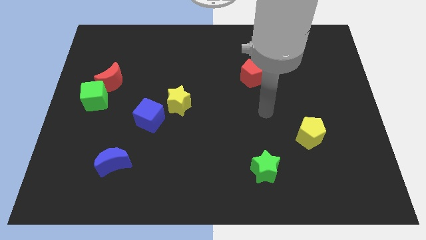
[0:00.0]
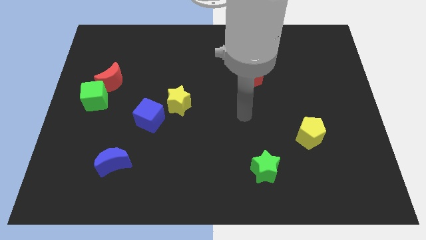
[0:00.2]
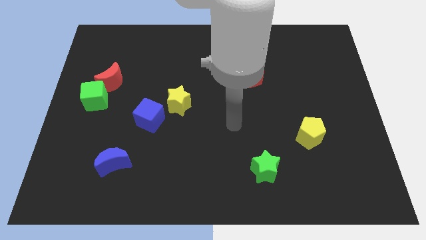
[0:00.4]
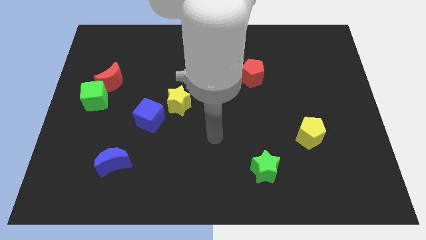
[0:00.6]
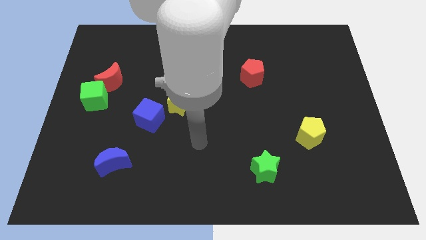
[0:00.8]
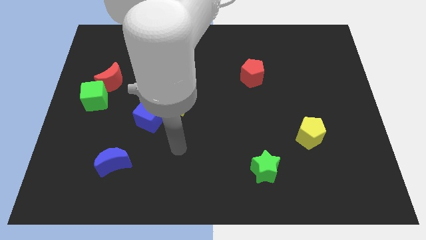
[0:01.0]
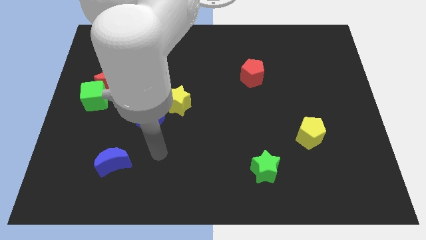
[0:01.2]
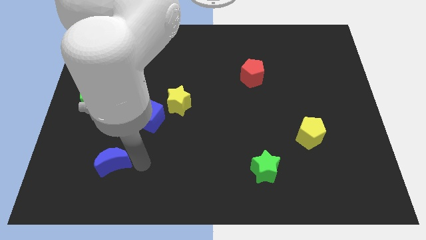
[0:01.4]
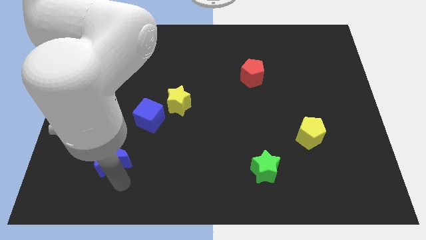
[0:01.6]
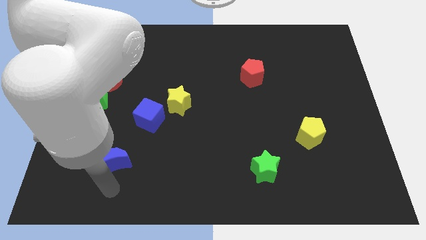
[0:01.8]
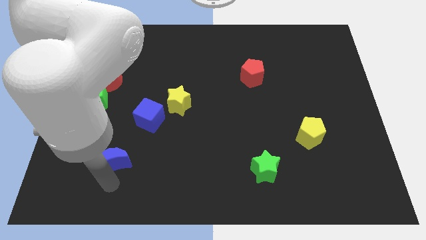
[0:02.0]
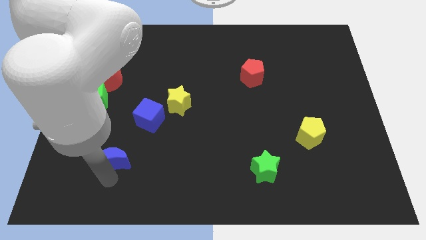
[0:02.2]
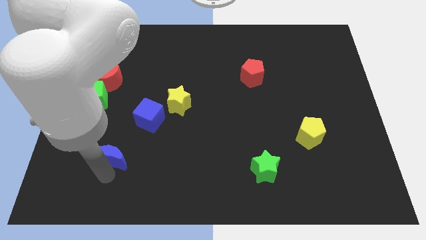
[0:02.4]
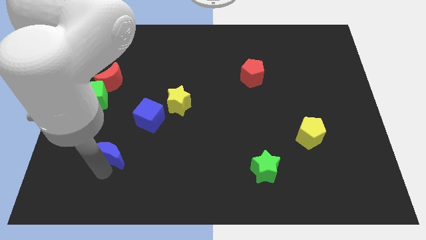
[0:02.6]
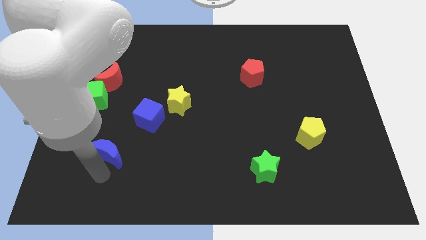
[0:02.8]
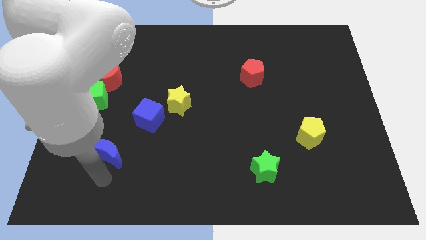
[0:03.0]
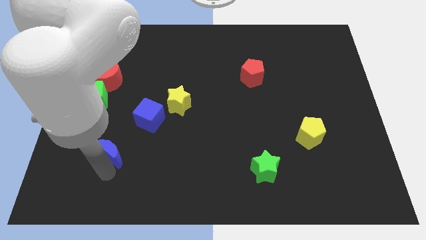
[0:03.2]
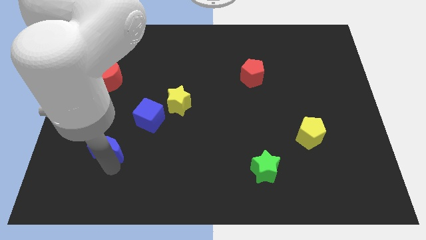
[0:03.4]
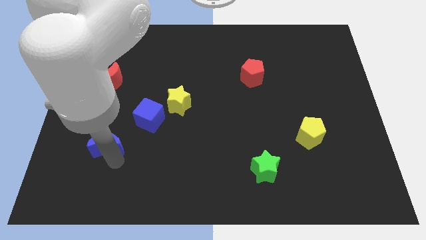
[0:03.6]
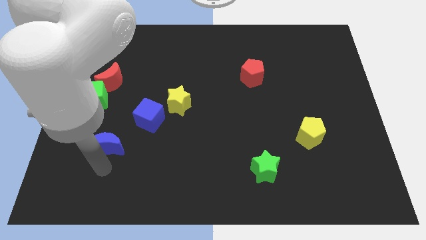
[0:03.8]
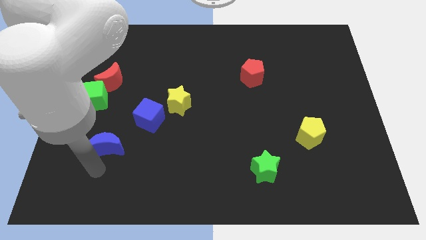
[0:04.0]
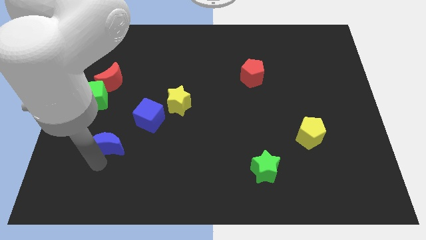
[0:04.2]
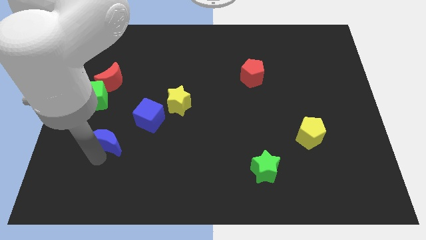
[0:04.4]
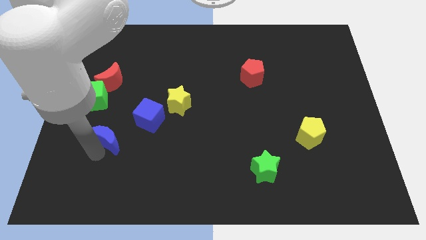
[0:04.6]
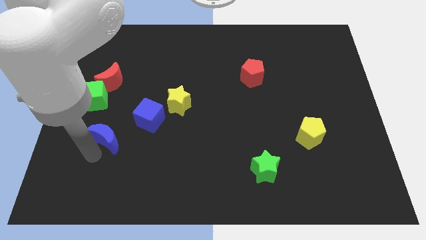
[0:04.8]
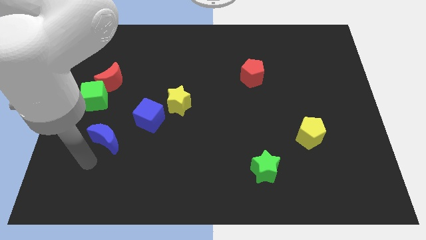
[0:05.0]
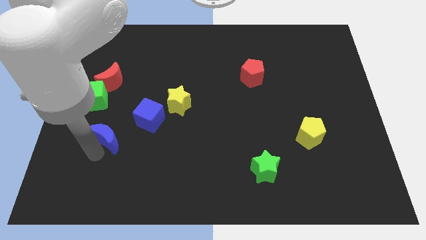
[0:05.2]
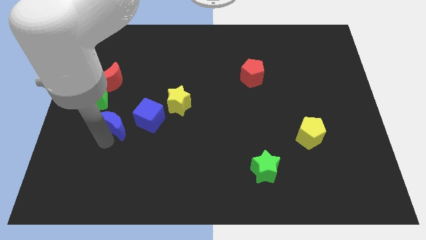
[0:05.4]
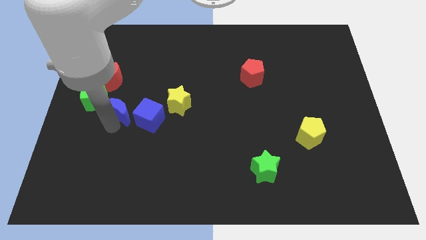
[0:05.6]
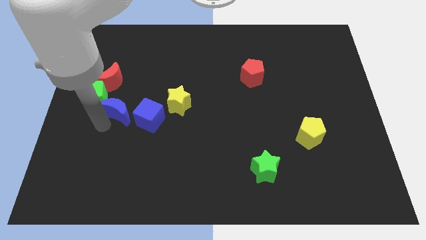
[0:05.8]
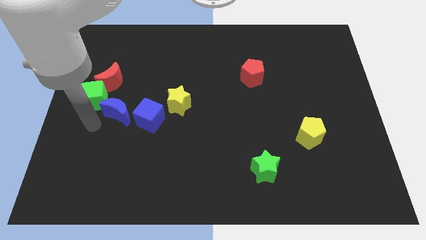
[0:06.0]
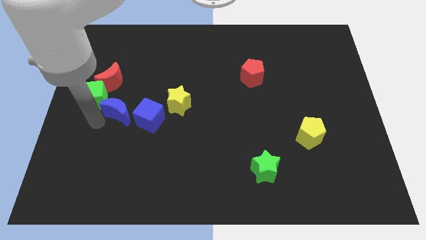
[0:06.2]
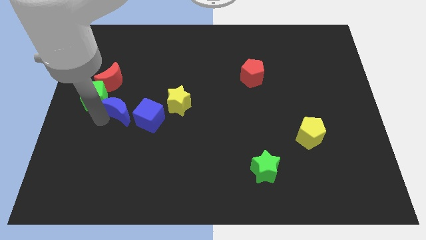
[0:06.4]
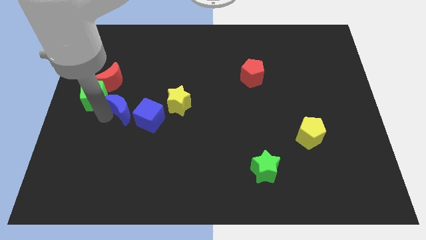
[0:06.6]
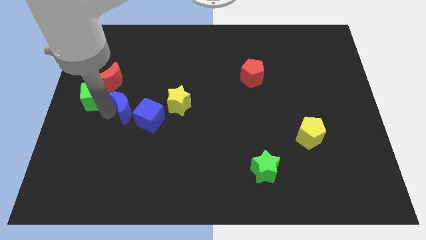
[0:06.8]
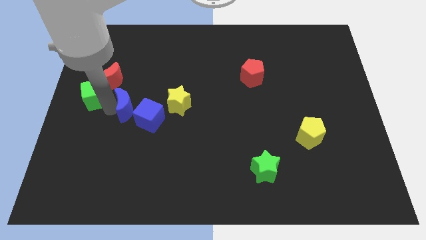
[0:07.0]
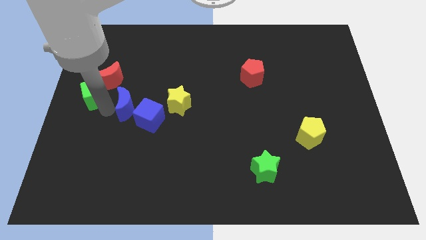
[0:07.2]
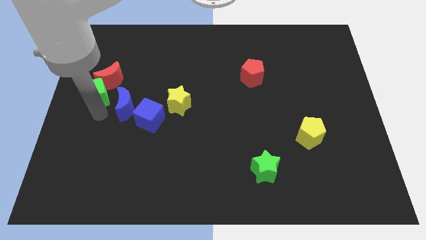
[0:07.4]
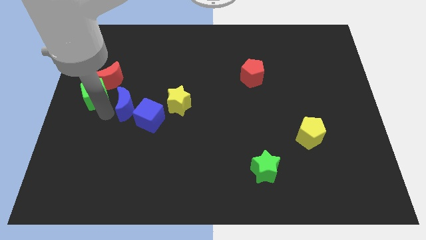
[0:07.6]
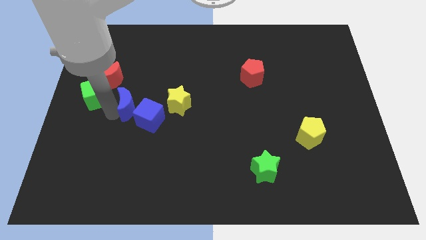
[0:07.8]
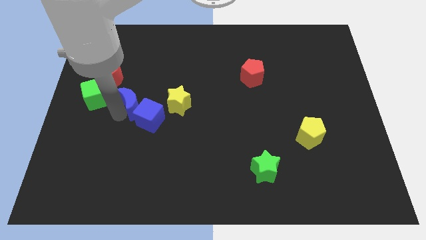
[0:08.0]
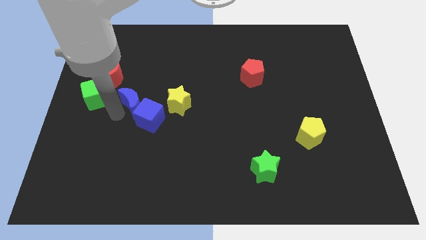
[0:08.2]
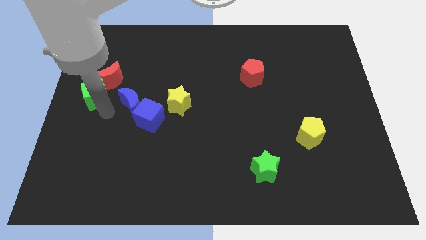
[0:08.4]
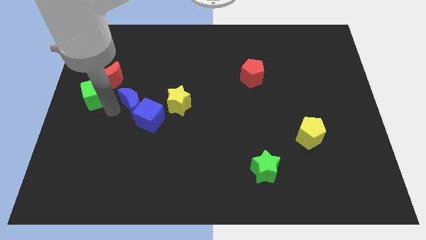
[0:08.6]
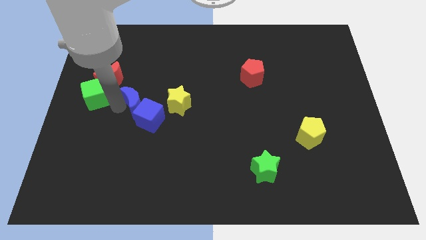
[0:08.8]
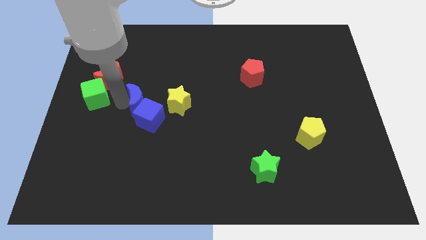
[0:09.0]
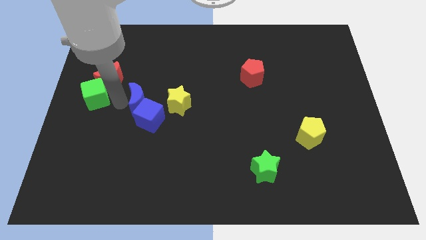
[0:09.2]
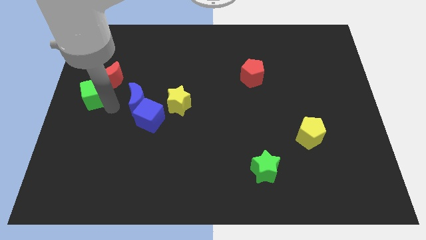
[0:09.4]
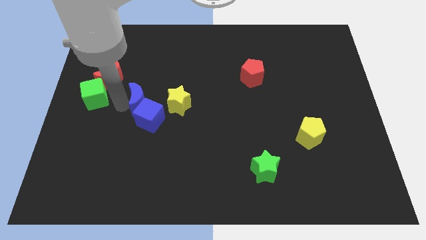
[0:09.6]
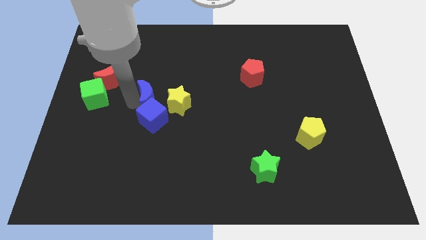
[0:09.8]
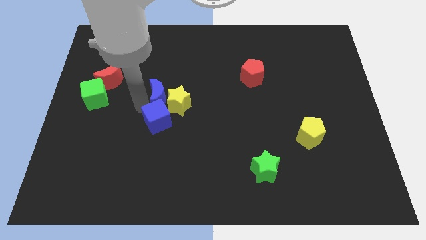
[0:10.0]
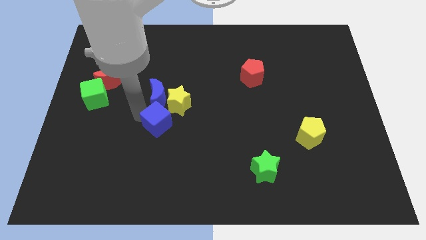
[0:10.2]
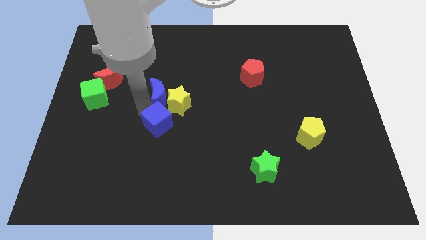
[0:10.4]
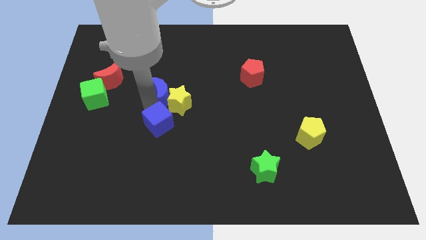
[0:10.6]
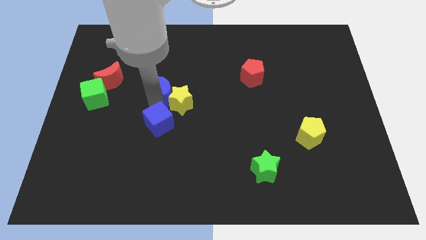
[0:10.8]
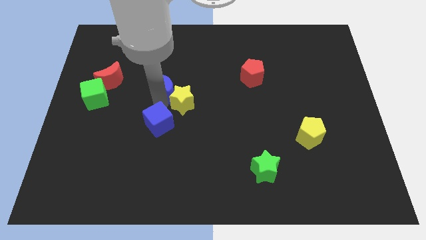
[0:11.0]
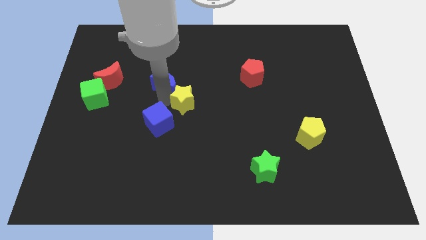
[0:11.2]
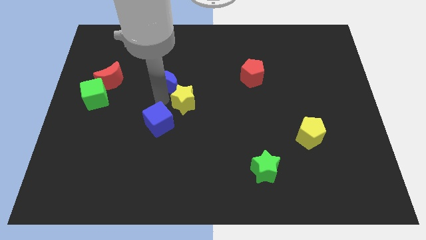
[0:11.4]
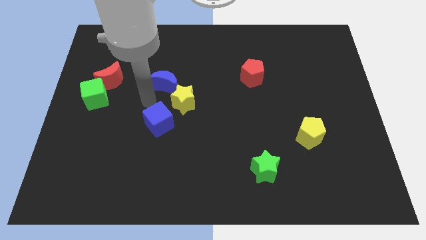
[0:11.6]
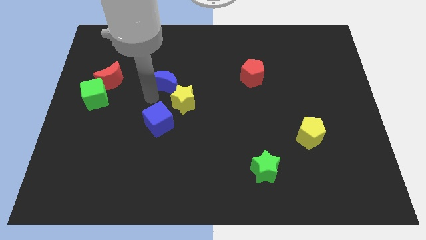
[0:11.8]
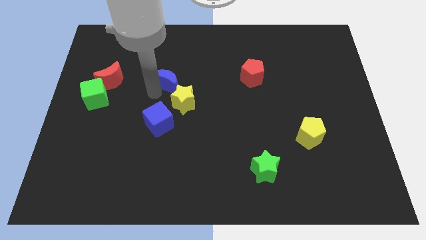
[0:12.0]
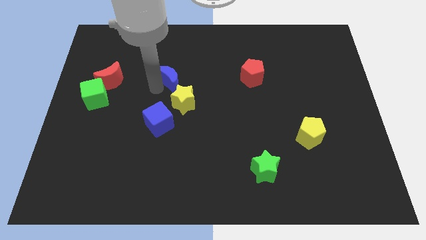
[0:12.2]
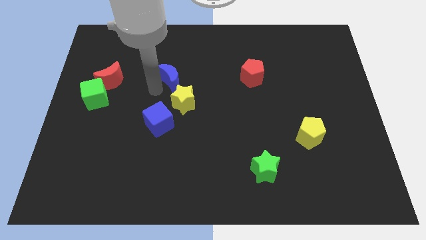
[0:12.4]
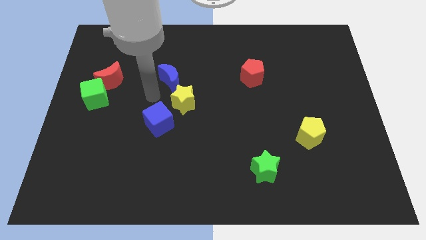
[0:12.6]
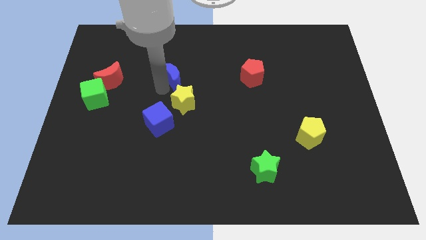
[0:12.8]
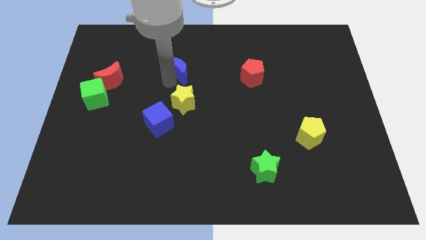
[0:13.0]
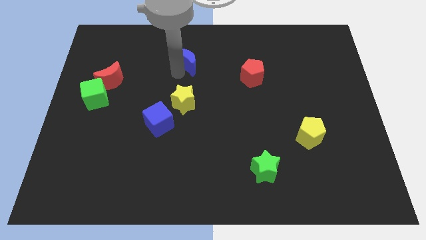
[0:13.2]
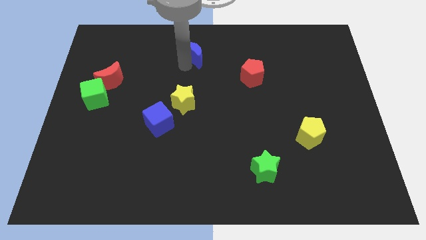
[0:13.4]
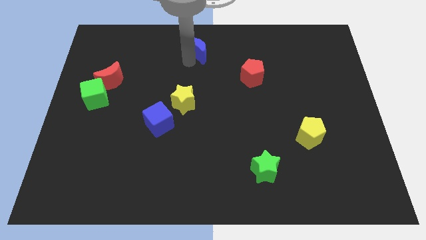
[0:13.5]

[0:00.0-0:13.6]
move the blue moon to the top side

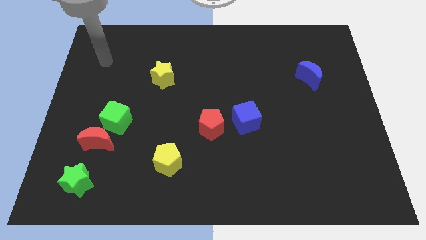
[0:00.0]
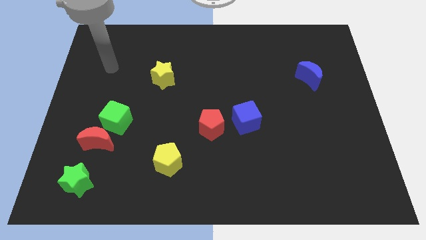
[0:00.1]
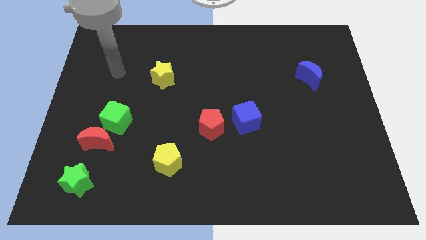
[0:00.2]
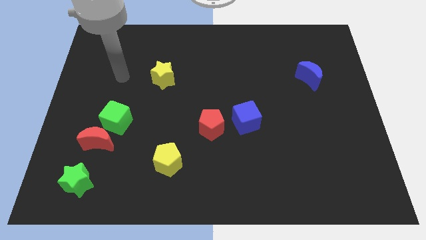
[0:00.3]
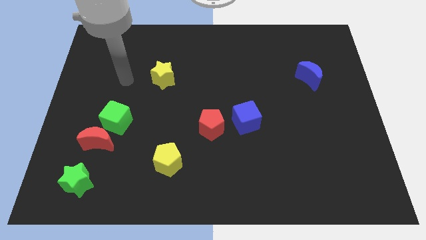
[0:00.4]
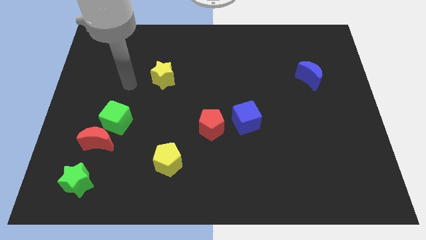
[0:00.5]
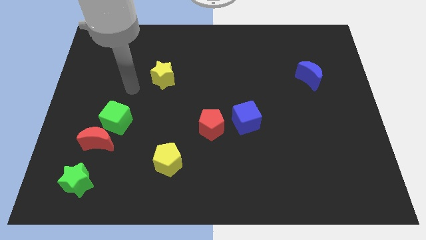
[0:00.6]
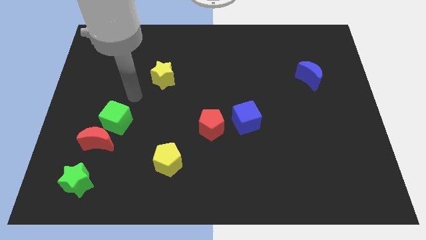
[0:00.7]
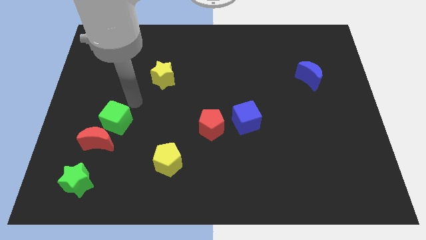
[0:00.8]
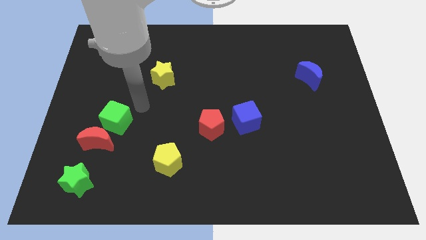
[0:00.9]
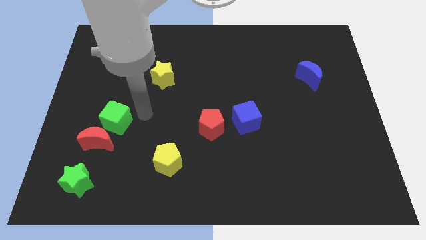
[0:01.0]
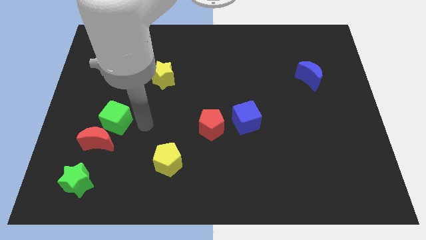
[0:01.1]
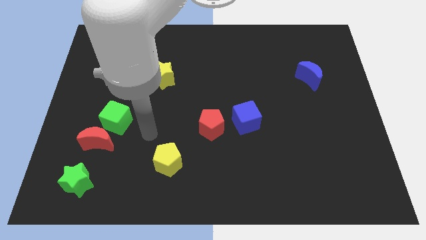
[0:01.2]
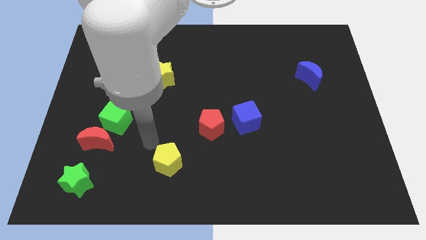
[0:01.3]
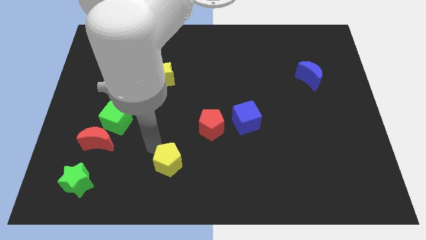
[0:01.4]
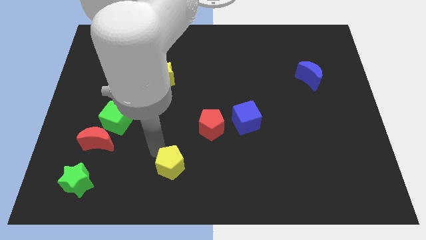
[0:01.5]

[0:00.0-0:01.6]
put the yellow pentagon to the bottom side
